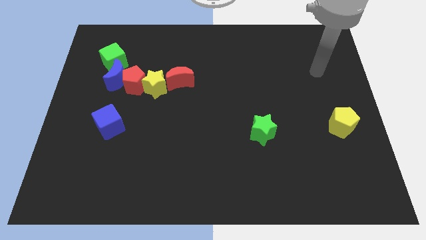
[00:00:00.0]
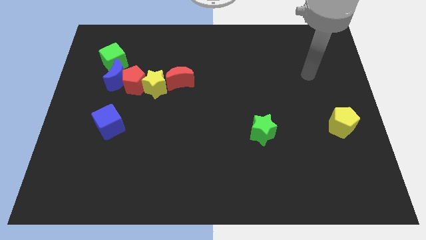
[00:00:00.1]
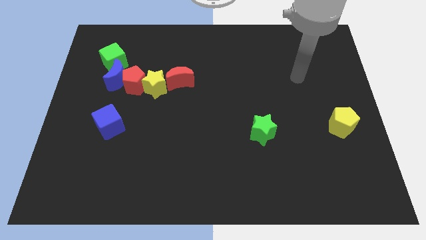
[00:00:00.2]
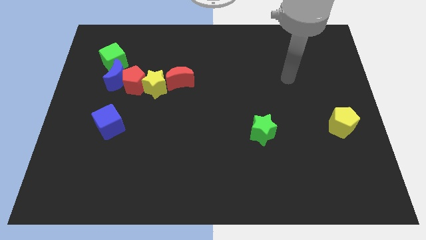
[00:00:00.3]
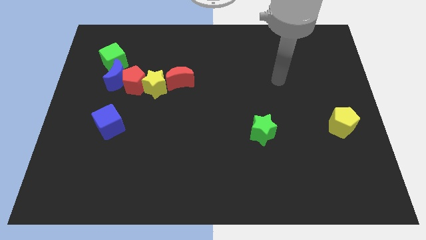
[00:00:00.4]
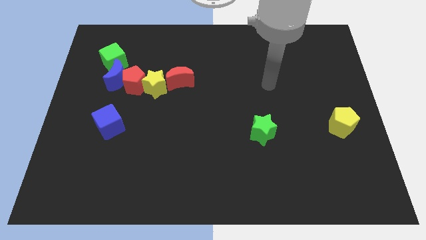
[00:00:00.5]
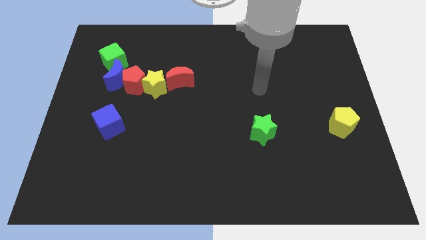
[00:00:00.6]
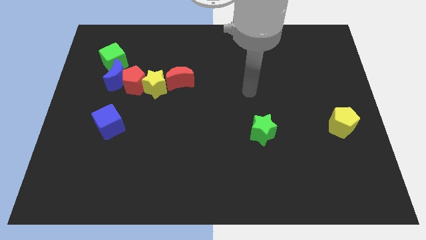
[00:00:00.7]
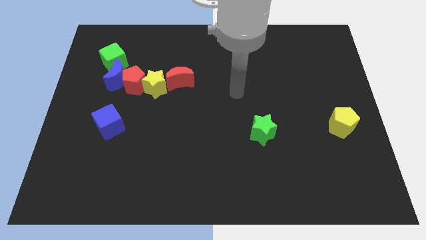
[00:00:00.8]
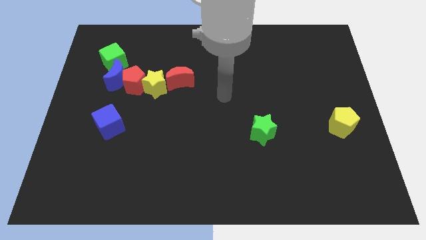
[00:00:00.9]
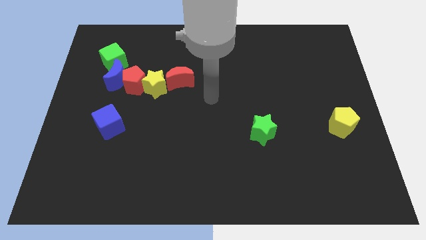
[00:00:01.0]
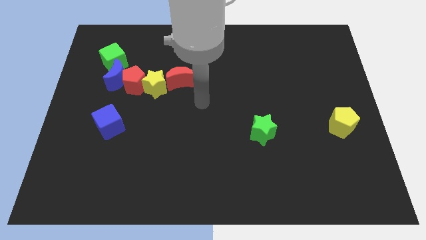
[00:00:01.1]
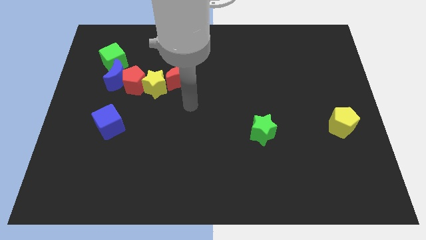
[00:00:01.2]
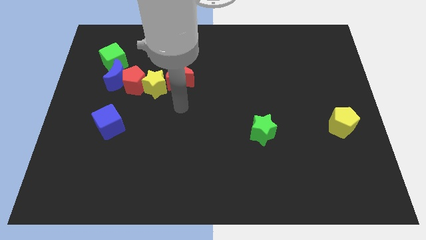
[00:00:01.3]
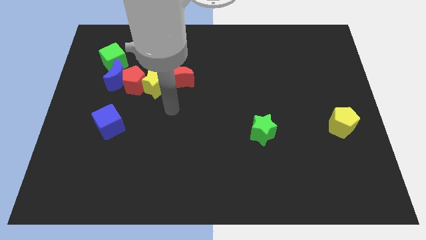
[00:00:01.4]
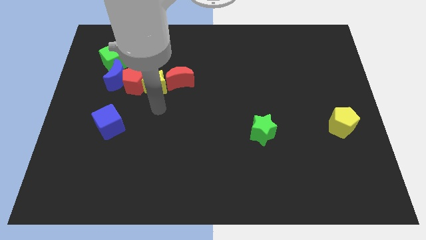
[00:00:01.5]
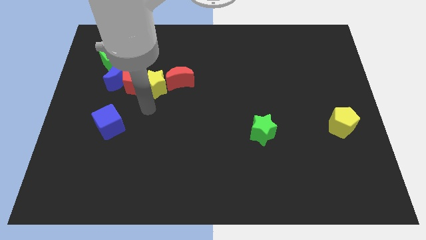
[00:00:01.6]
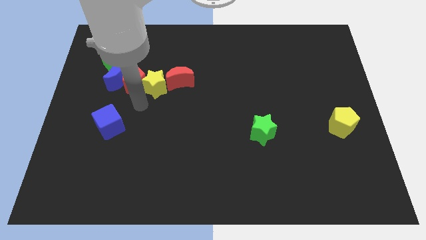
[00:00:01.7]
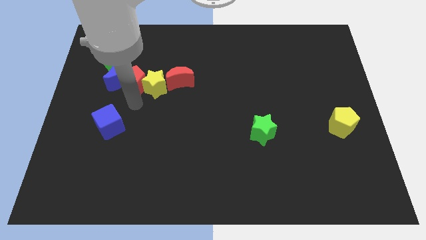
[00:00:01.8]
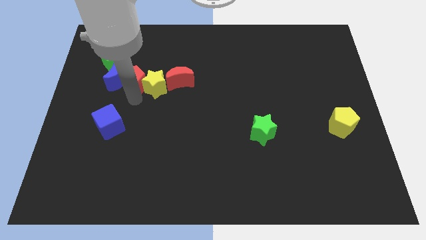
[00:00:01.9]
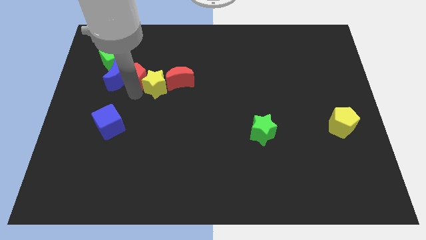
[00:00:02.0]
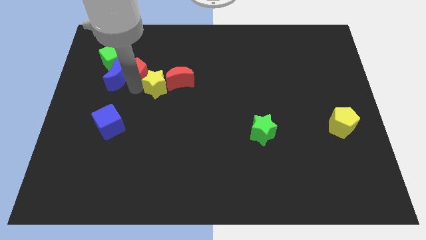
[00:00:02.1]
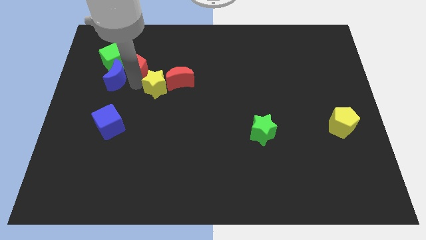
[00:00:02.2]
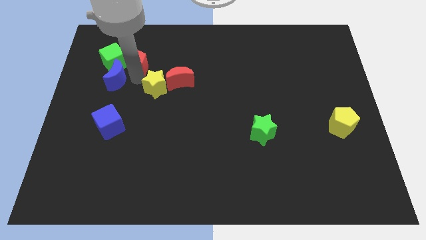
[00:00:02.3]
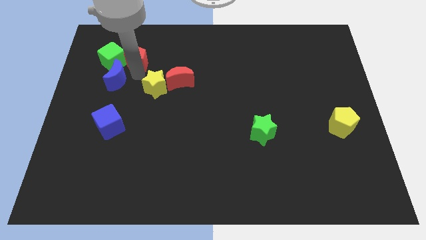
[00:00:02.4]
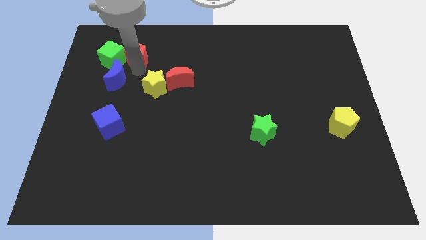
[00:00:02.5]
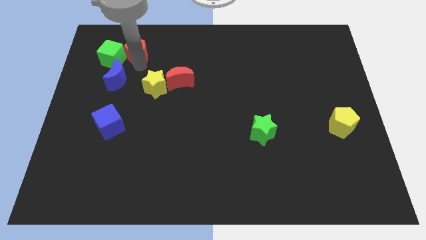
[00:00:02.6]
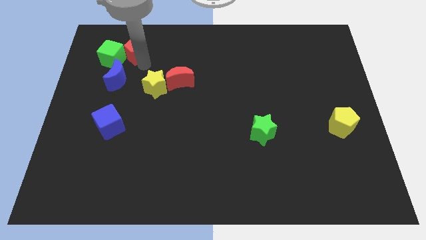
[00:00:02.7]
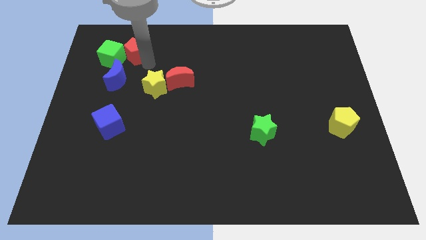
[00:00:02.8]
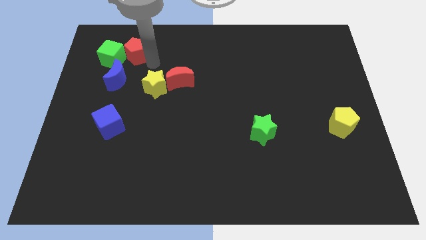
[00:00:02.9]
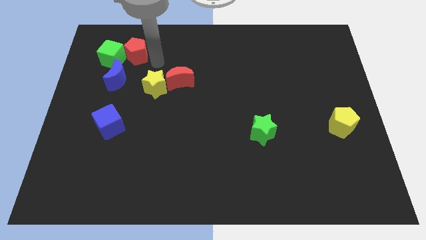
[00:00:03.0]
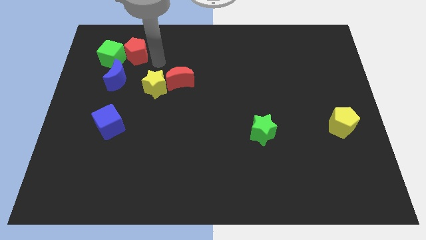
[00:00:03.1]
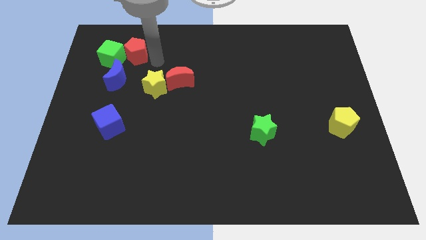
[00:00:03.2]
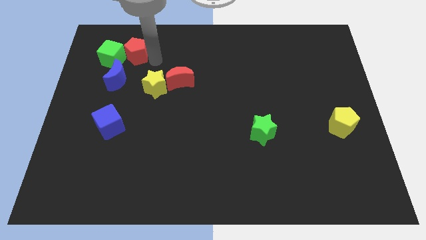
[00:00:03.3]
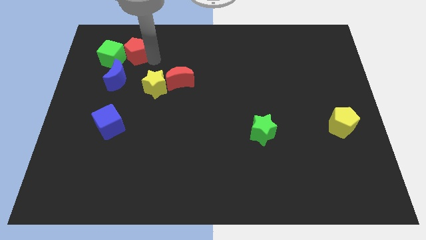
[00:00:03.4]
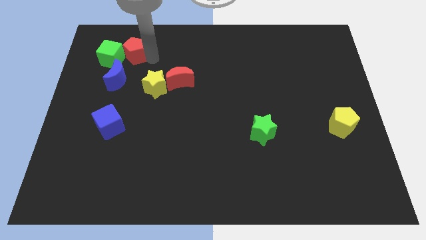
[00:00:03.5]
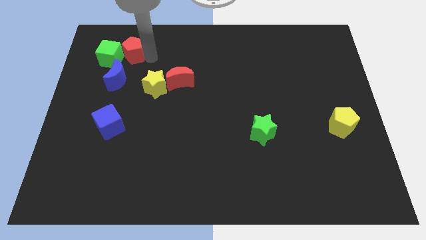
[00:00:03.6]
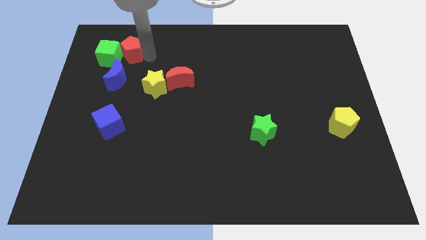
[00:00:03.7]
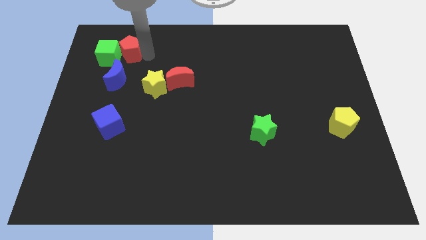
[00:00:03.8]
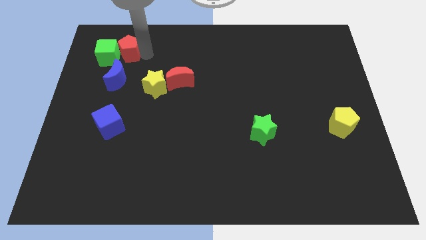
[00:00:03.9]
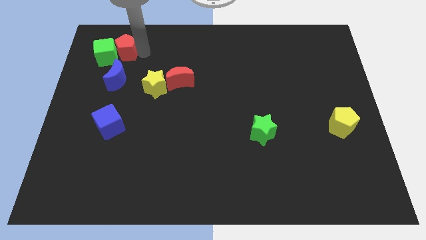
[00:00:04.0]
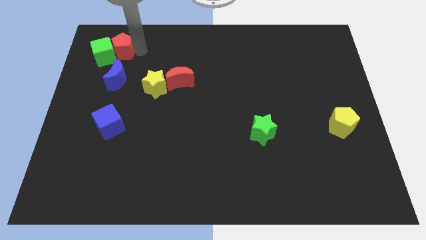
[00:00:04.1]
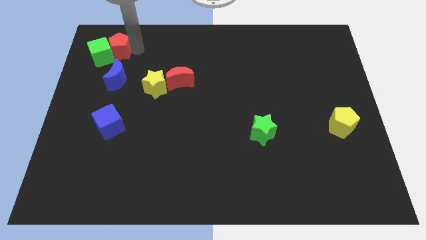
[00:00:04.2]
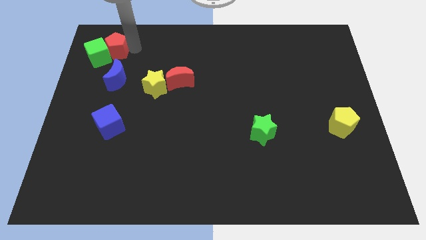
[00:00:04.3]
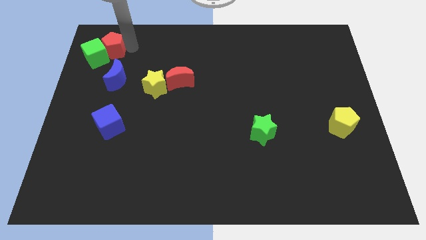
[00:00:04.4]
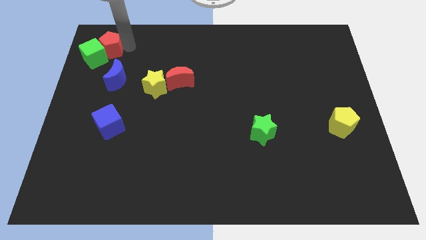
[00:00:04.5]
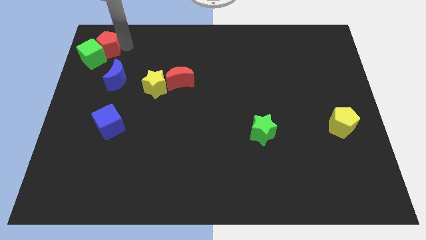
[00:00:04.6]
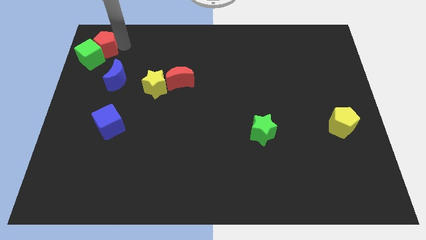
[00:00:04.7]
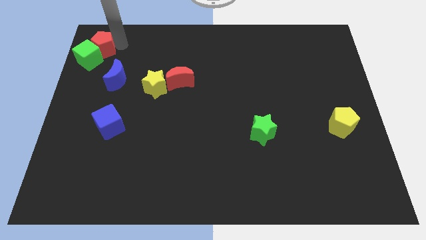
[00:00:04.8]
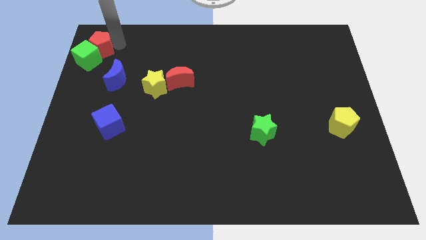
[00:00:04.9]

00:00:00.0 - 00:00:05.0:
push the red pentagon to the top left corner

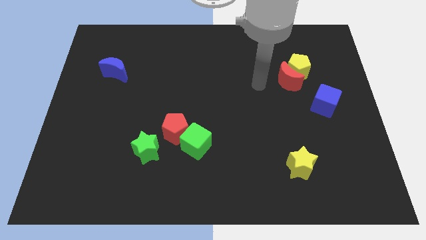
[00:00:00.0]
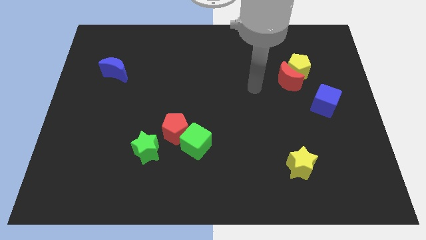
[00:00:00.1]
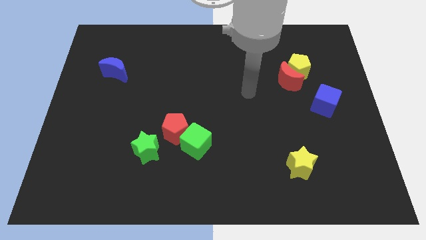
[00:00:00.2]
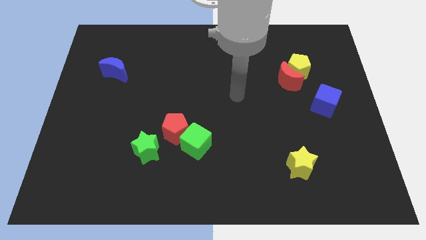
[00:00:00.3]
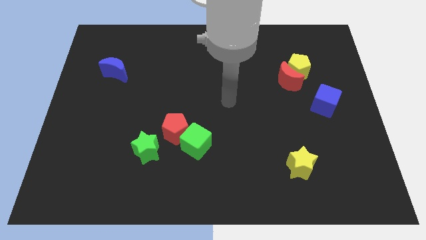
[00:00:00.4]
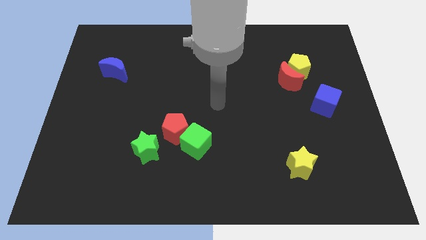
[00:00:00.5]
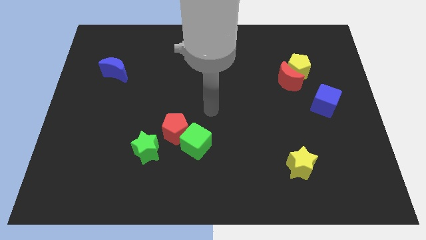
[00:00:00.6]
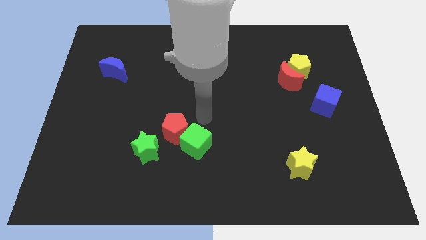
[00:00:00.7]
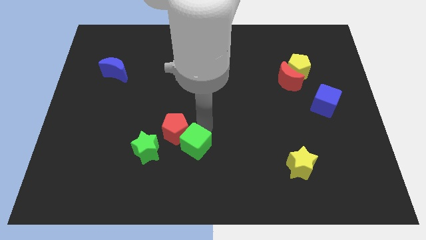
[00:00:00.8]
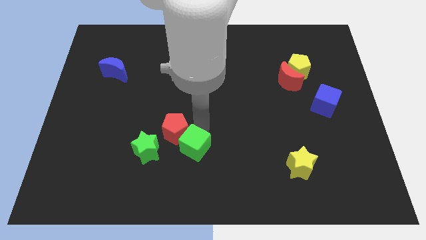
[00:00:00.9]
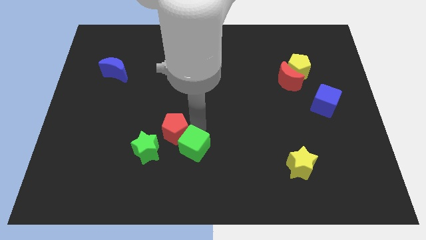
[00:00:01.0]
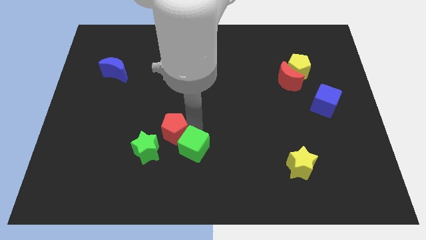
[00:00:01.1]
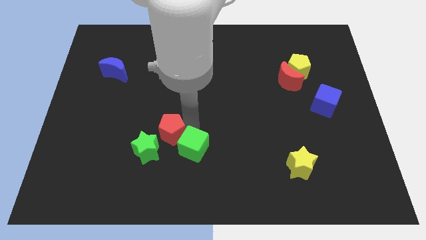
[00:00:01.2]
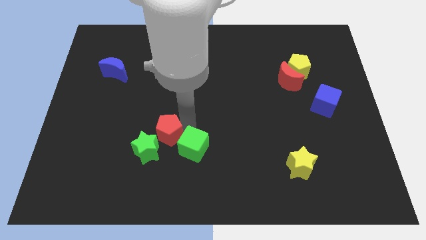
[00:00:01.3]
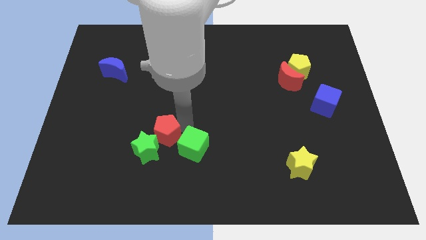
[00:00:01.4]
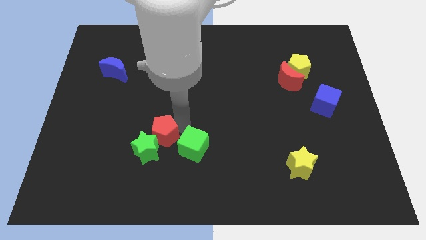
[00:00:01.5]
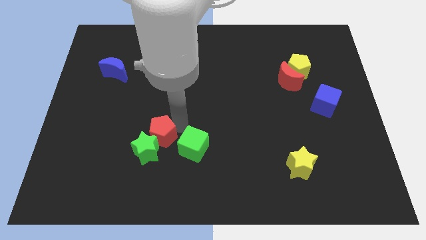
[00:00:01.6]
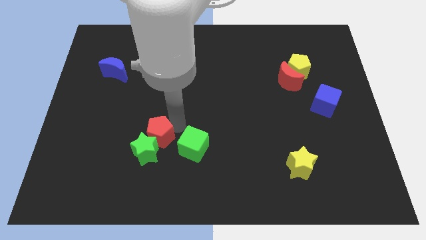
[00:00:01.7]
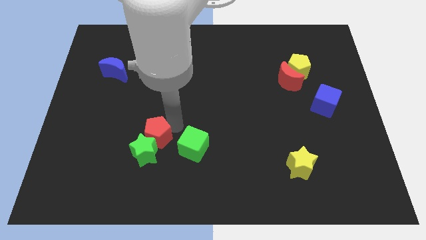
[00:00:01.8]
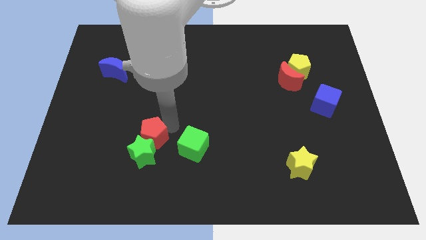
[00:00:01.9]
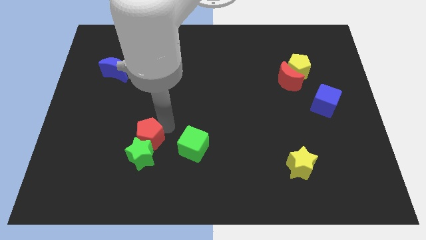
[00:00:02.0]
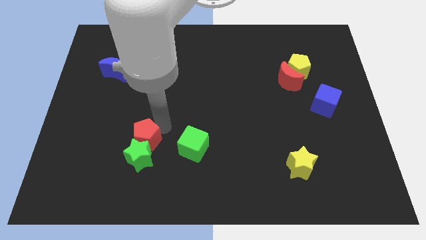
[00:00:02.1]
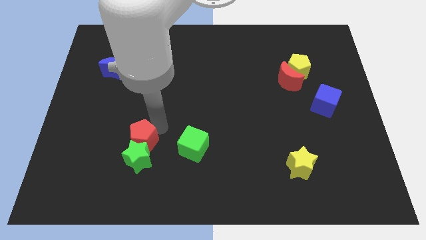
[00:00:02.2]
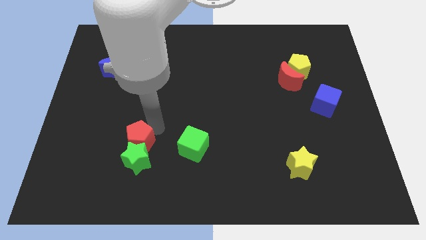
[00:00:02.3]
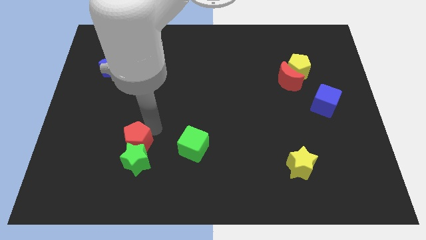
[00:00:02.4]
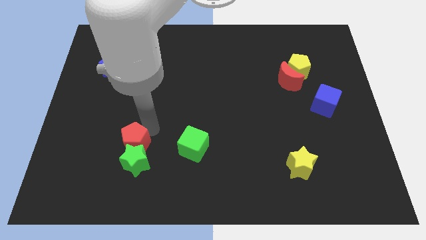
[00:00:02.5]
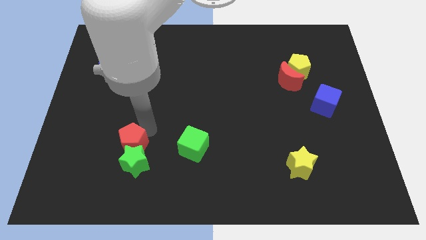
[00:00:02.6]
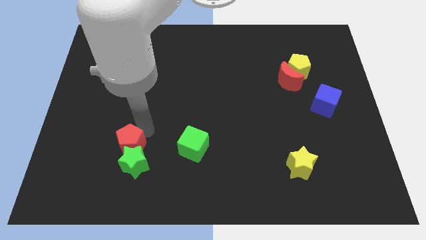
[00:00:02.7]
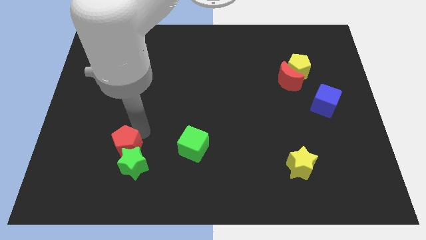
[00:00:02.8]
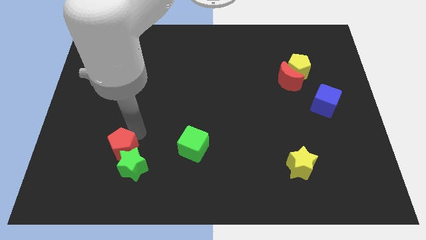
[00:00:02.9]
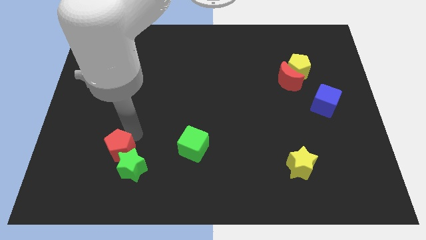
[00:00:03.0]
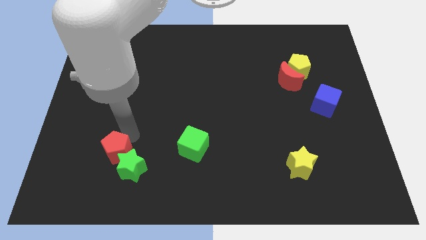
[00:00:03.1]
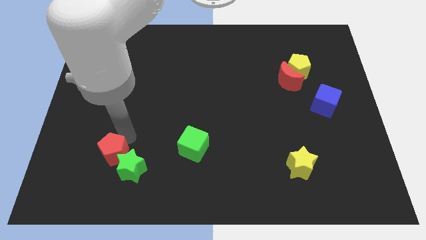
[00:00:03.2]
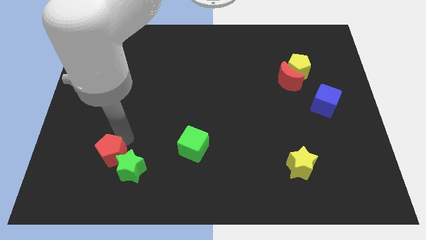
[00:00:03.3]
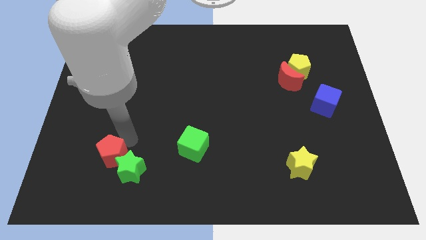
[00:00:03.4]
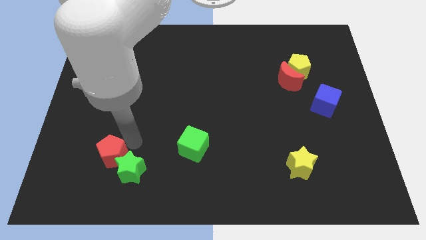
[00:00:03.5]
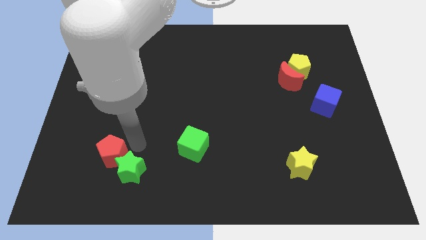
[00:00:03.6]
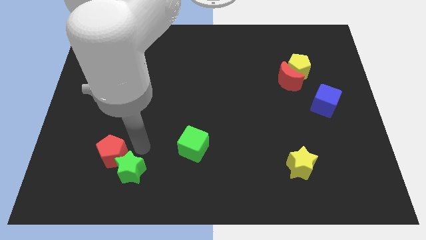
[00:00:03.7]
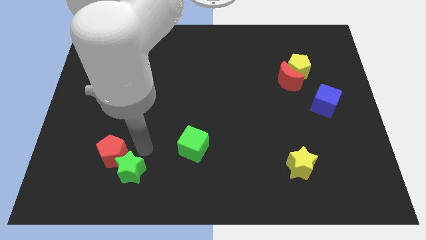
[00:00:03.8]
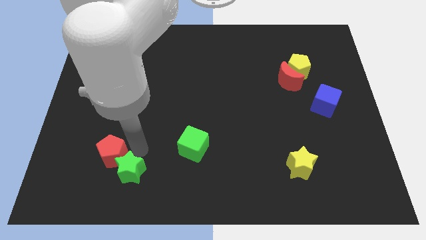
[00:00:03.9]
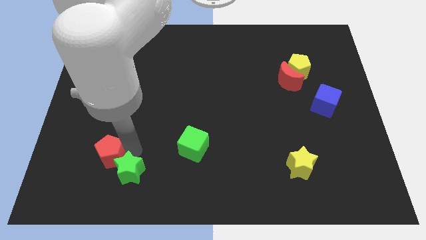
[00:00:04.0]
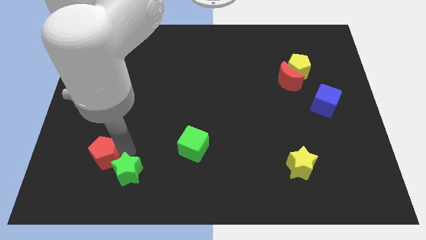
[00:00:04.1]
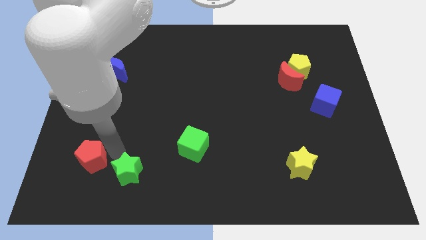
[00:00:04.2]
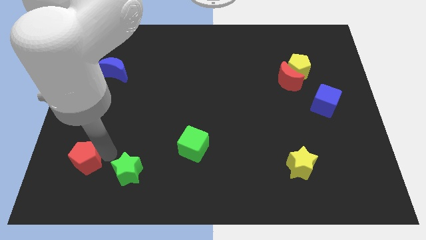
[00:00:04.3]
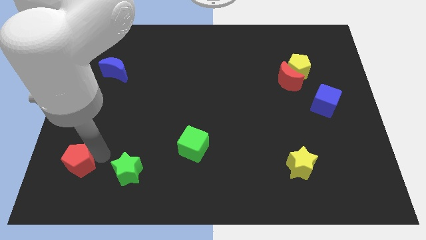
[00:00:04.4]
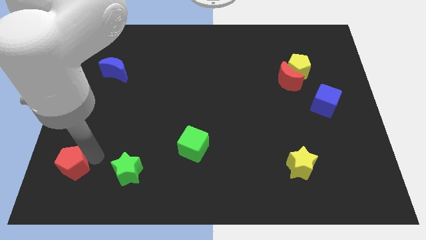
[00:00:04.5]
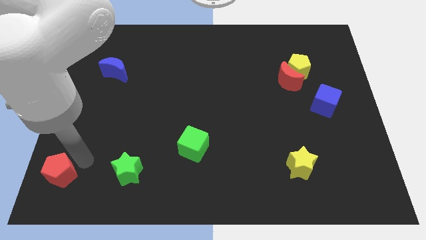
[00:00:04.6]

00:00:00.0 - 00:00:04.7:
slide the red pentagon to the bottom left
